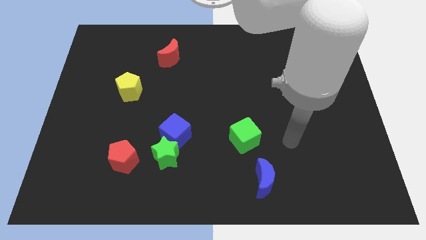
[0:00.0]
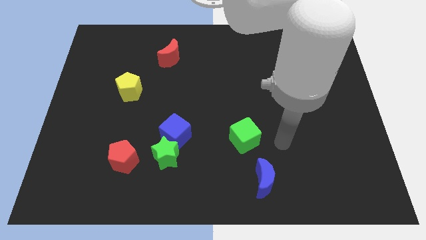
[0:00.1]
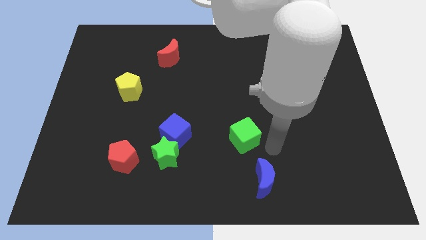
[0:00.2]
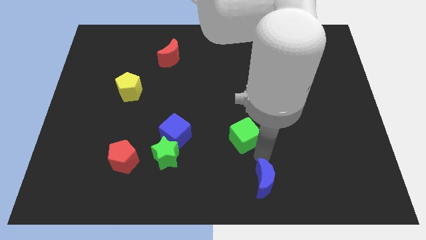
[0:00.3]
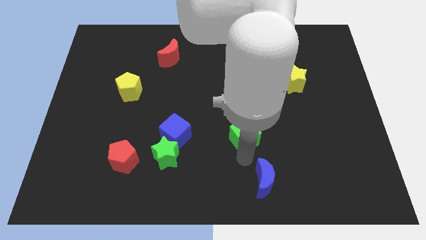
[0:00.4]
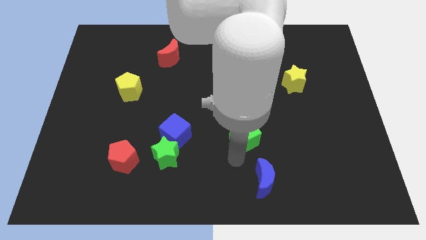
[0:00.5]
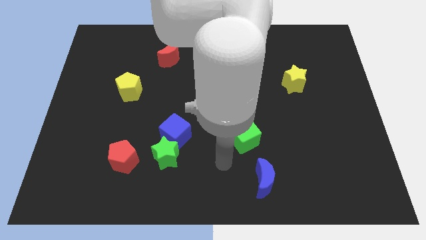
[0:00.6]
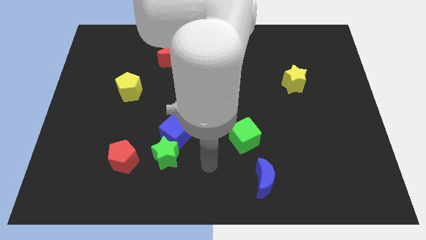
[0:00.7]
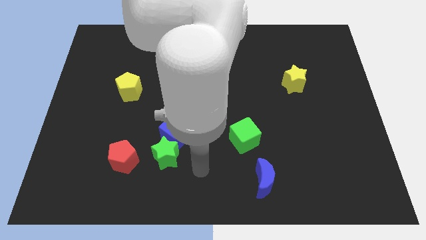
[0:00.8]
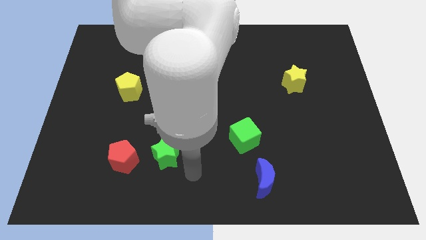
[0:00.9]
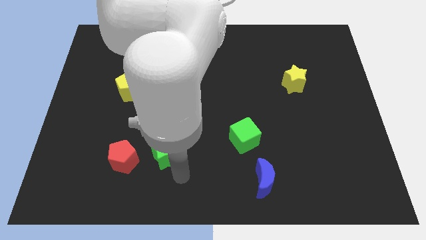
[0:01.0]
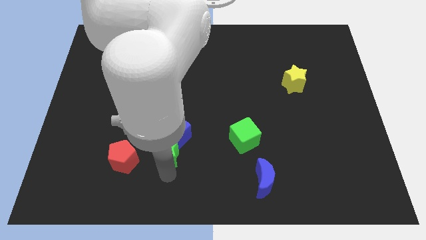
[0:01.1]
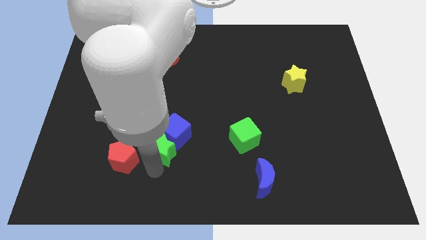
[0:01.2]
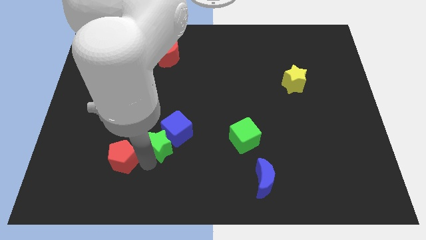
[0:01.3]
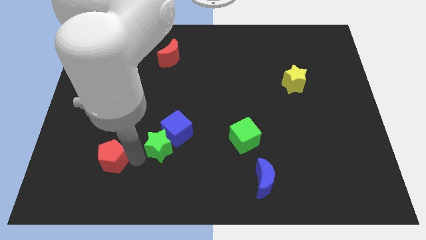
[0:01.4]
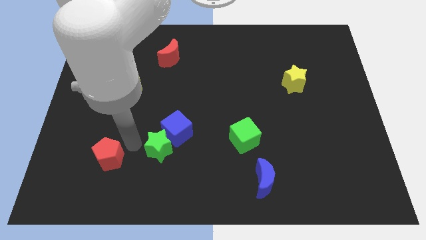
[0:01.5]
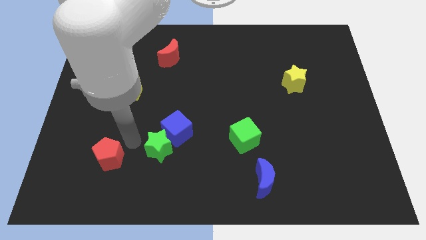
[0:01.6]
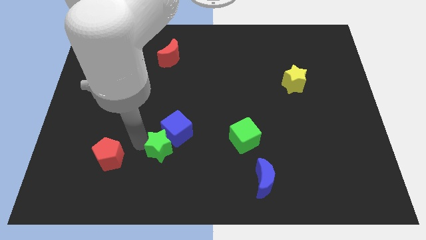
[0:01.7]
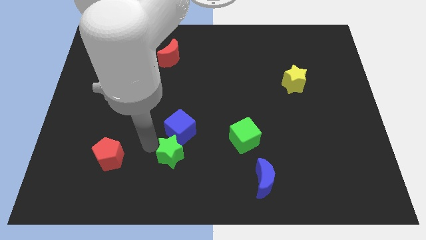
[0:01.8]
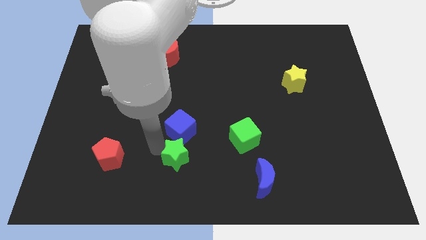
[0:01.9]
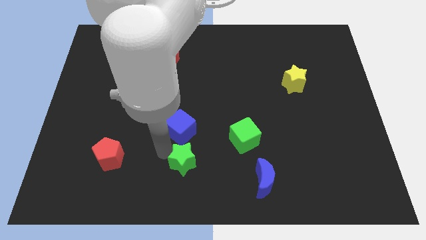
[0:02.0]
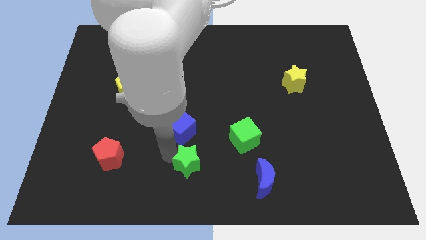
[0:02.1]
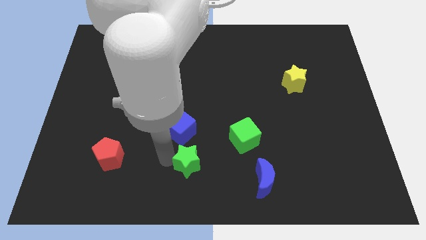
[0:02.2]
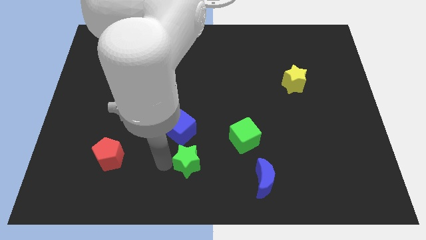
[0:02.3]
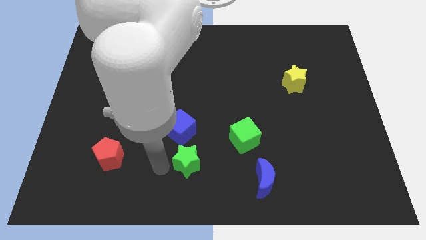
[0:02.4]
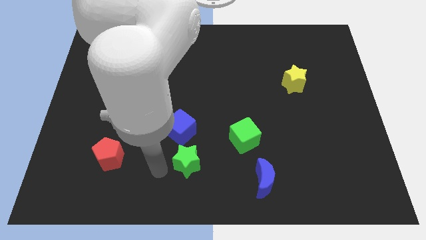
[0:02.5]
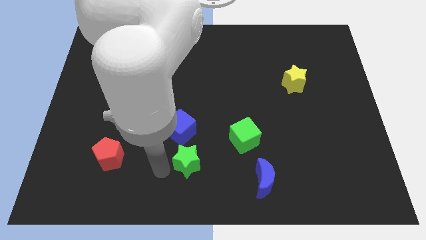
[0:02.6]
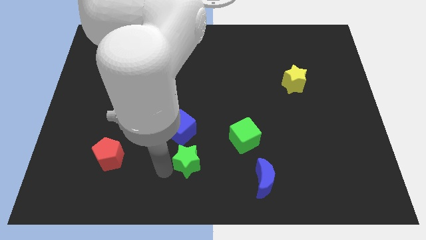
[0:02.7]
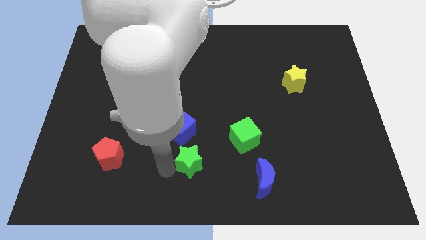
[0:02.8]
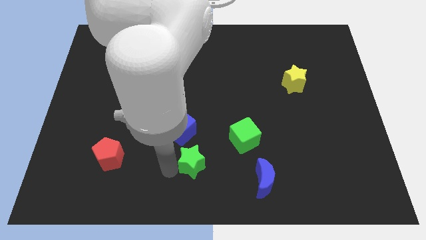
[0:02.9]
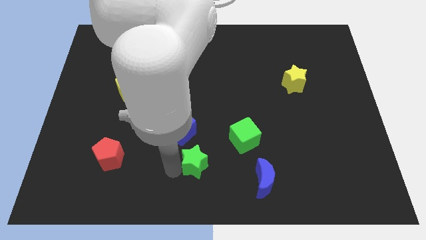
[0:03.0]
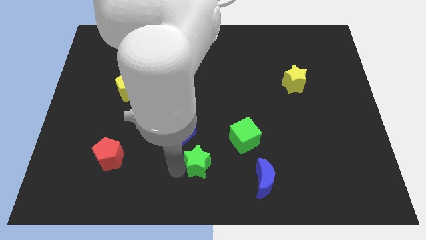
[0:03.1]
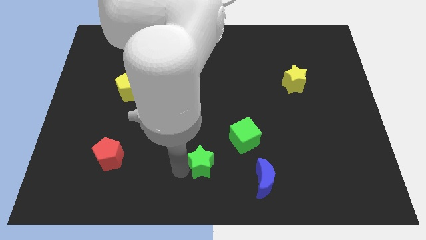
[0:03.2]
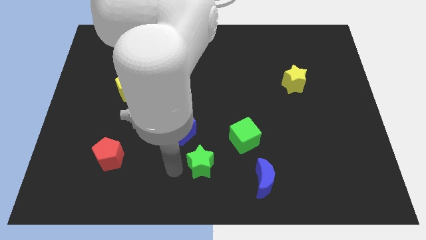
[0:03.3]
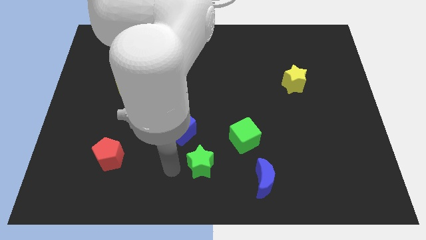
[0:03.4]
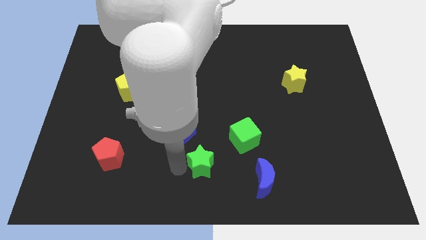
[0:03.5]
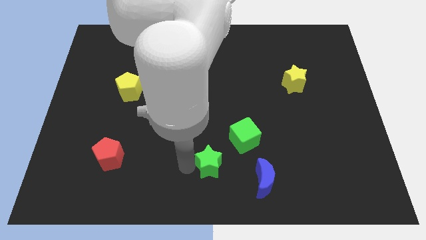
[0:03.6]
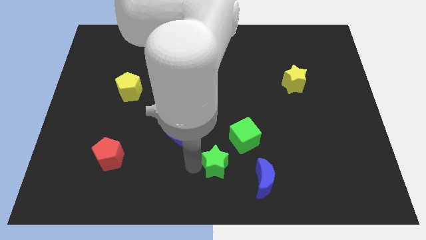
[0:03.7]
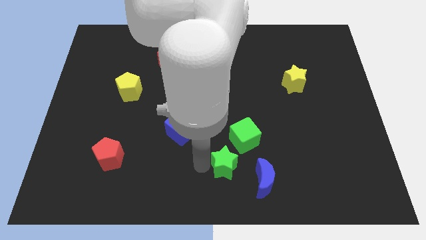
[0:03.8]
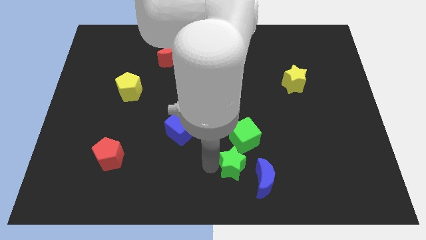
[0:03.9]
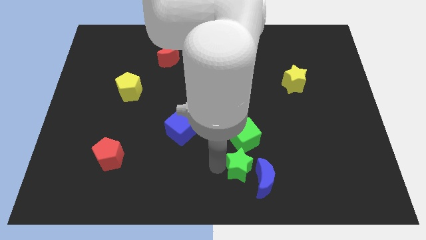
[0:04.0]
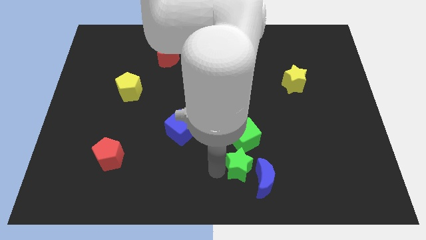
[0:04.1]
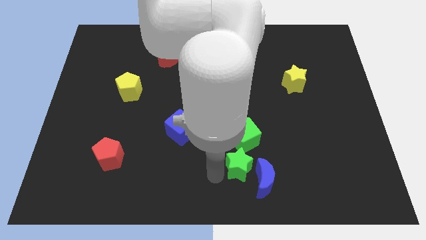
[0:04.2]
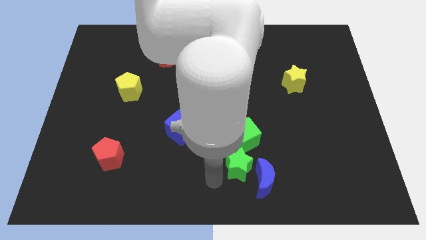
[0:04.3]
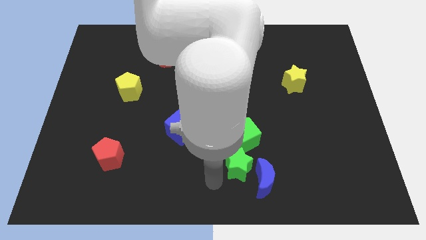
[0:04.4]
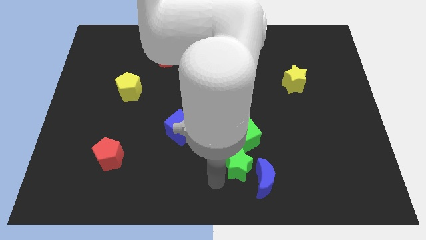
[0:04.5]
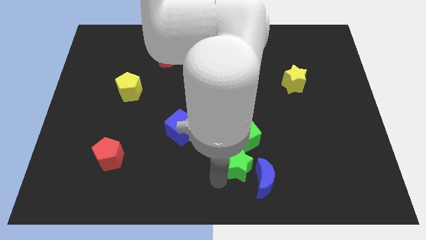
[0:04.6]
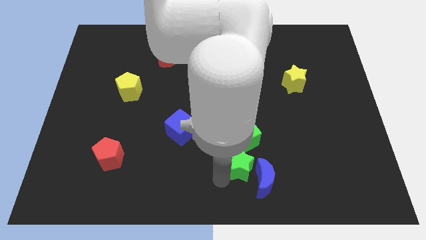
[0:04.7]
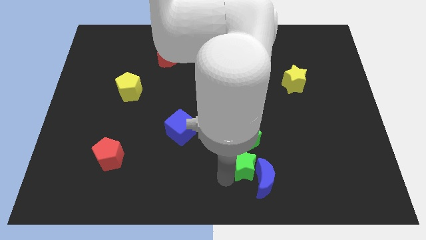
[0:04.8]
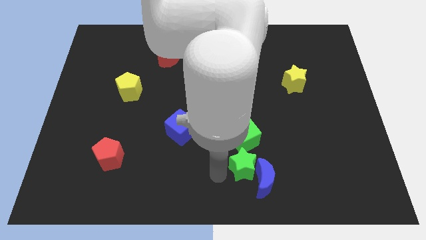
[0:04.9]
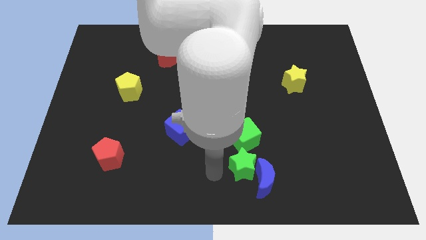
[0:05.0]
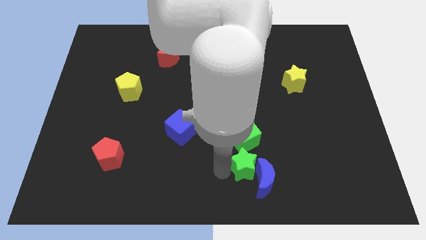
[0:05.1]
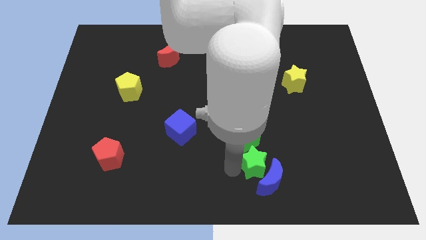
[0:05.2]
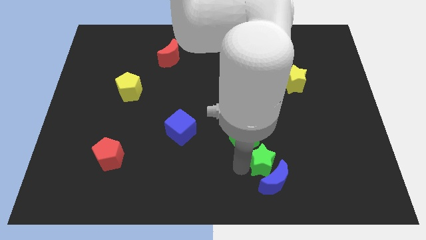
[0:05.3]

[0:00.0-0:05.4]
move the green star right

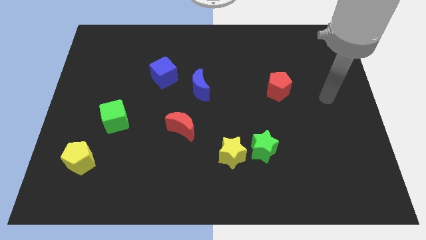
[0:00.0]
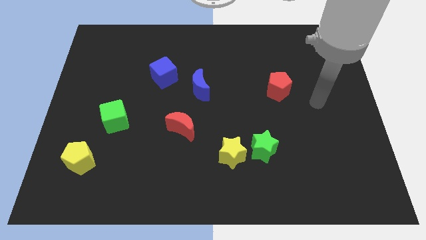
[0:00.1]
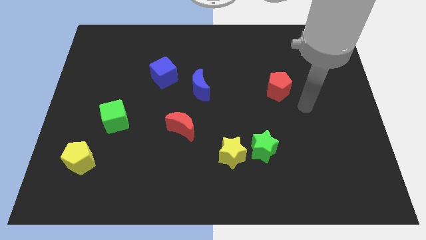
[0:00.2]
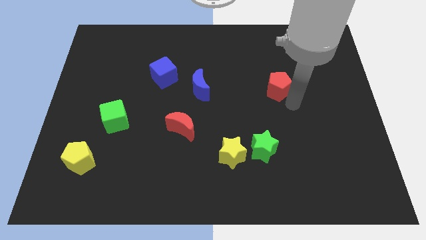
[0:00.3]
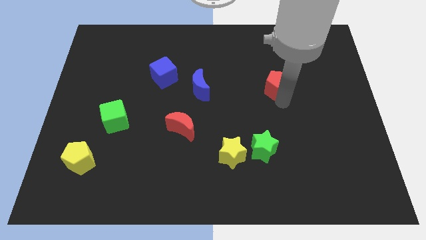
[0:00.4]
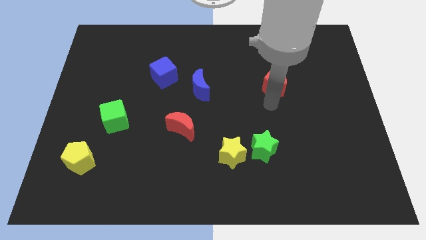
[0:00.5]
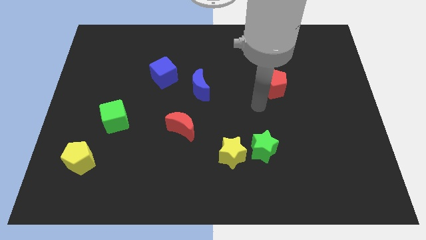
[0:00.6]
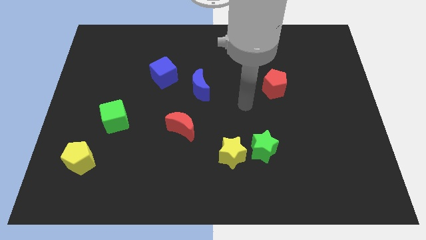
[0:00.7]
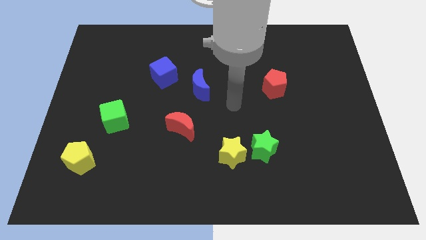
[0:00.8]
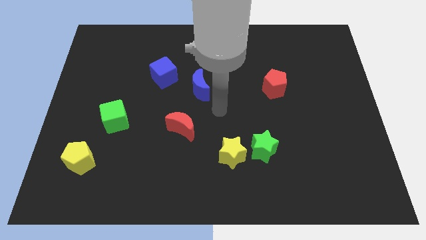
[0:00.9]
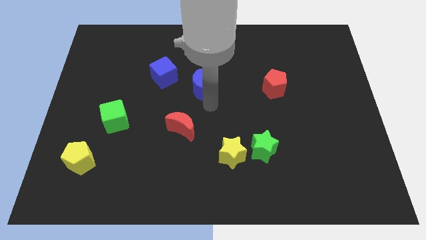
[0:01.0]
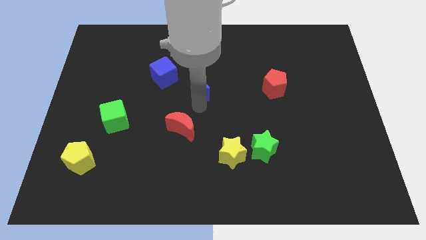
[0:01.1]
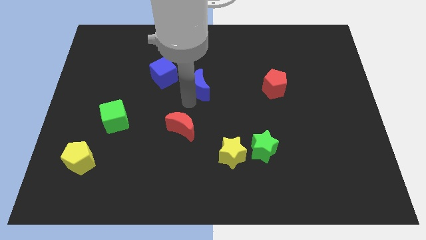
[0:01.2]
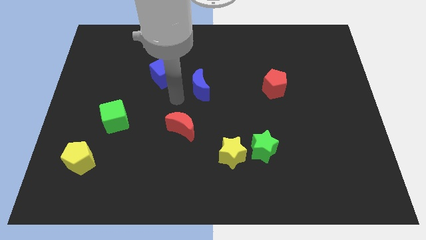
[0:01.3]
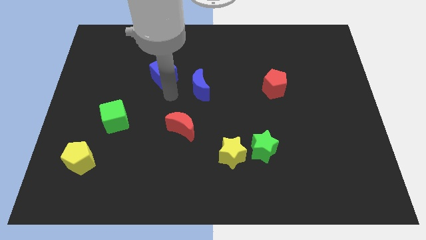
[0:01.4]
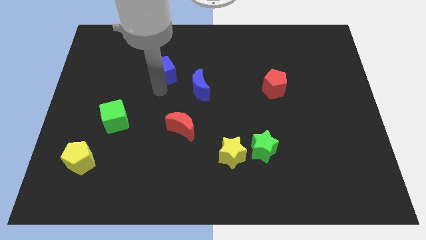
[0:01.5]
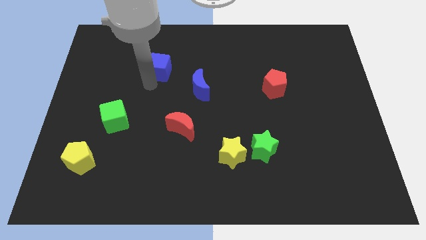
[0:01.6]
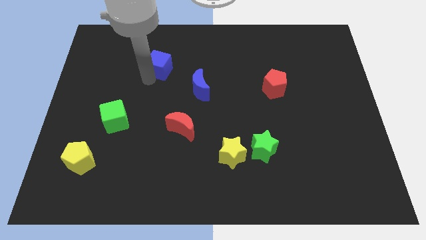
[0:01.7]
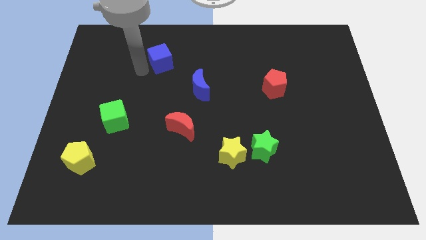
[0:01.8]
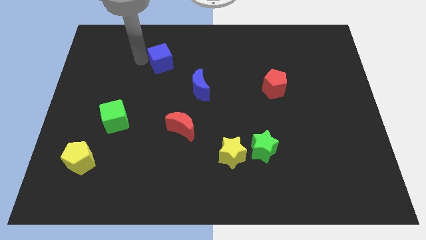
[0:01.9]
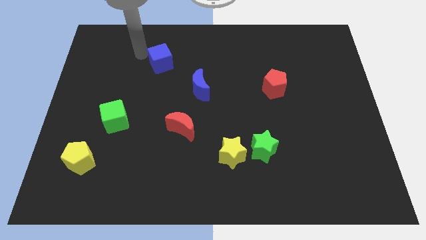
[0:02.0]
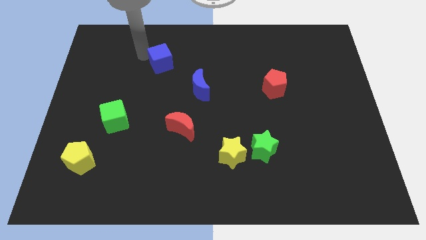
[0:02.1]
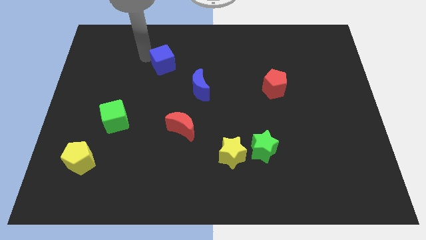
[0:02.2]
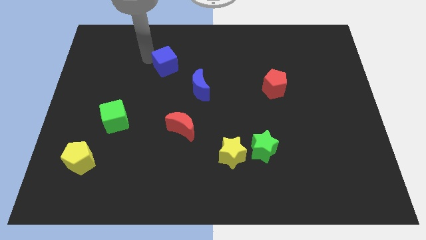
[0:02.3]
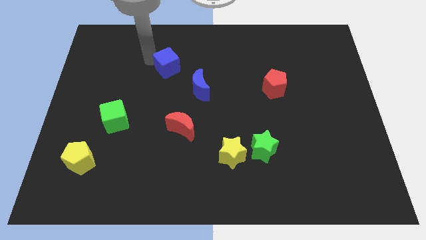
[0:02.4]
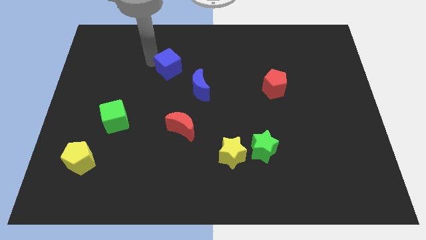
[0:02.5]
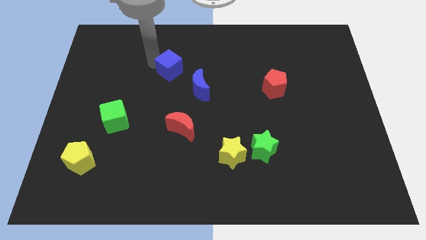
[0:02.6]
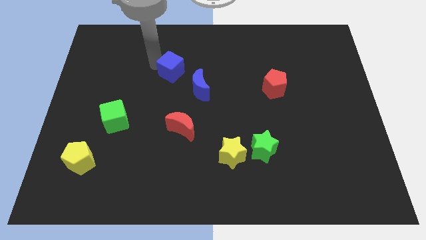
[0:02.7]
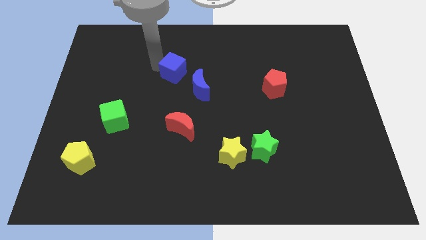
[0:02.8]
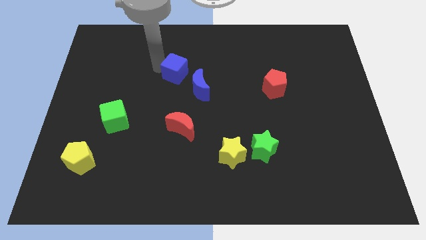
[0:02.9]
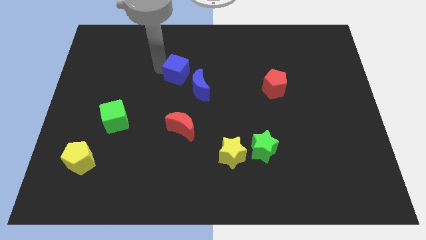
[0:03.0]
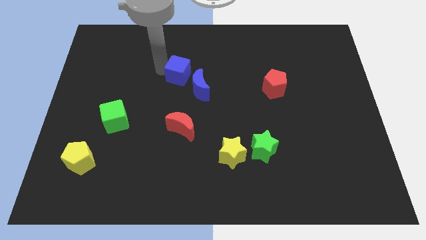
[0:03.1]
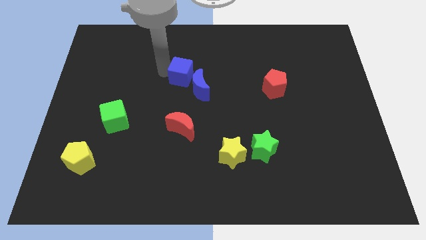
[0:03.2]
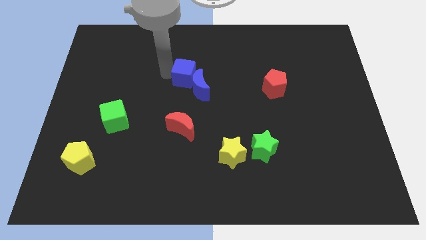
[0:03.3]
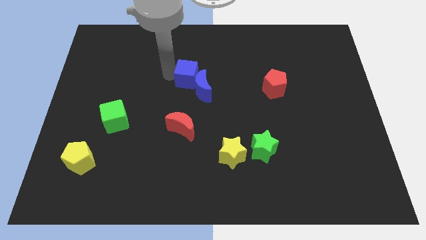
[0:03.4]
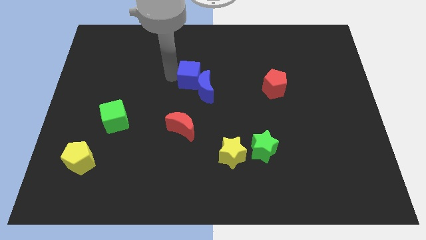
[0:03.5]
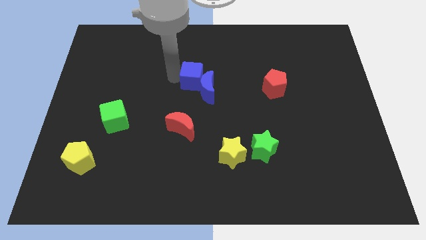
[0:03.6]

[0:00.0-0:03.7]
move the blue cube to the right slightly
